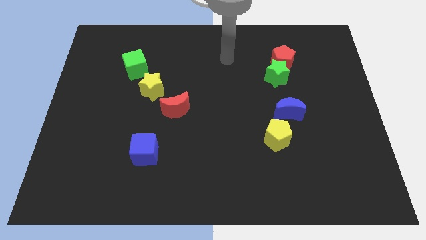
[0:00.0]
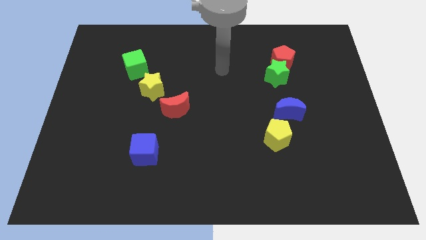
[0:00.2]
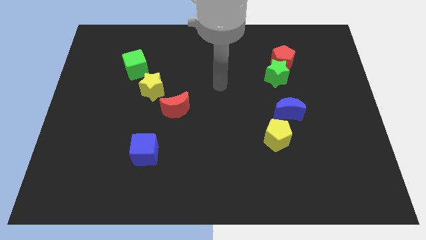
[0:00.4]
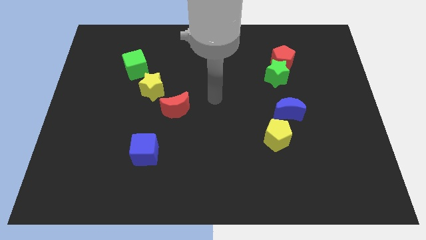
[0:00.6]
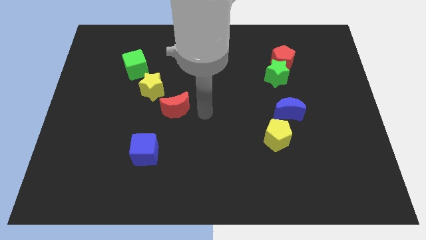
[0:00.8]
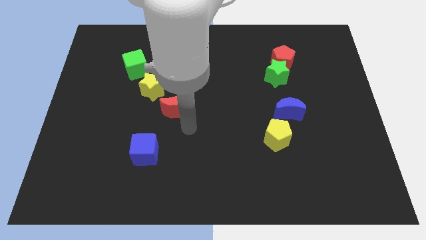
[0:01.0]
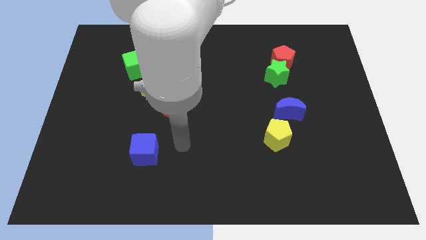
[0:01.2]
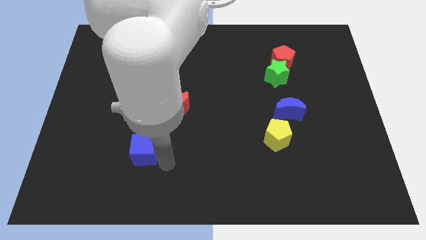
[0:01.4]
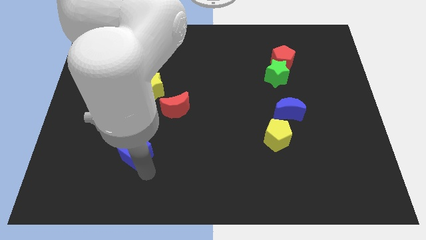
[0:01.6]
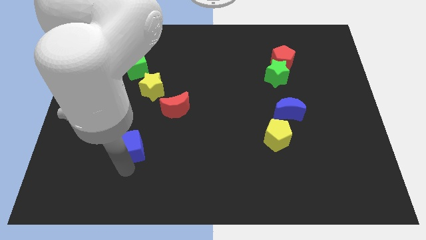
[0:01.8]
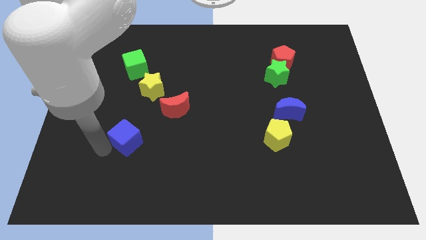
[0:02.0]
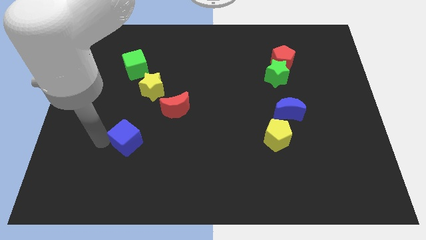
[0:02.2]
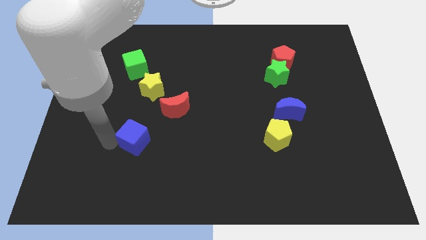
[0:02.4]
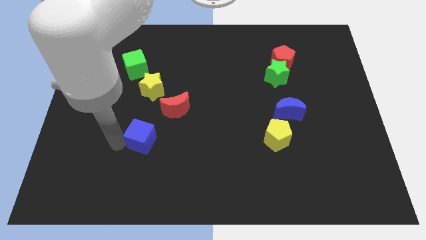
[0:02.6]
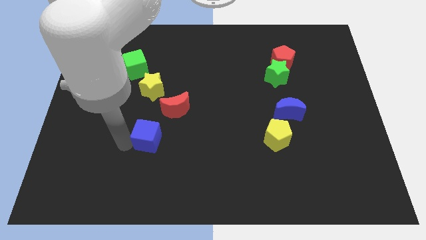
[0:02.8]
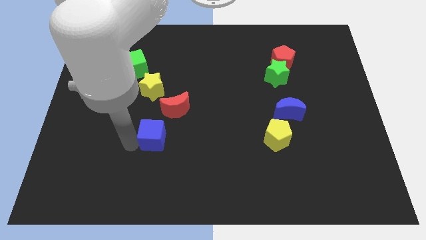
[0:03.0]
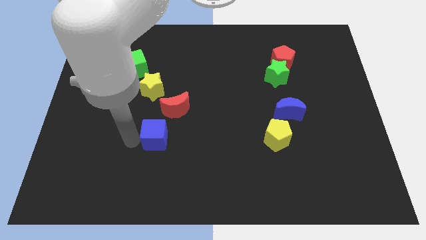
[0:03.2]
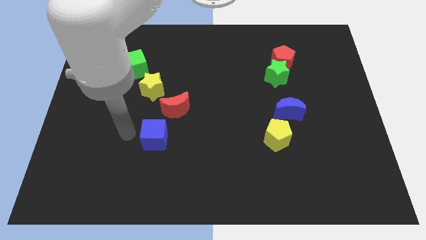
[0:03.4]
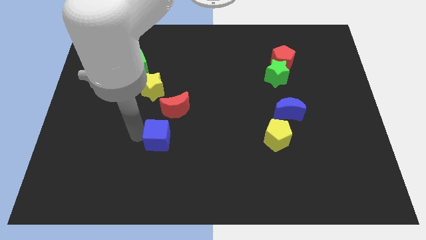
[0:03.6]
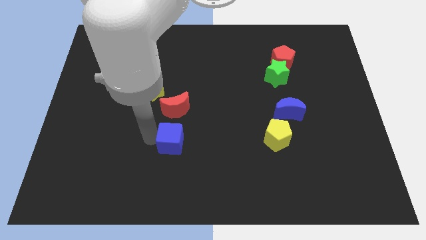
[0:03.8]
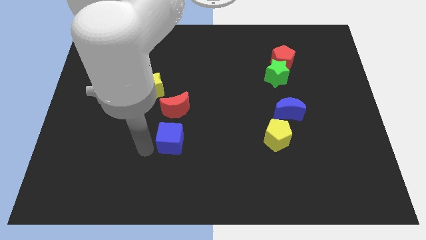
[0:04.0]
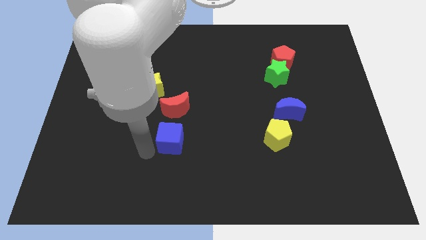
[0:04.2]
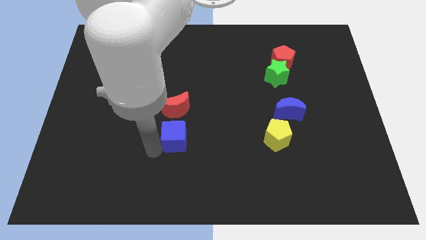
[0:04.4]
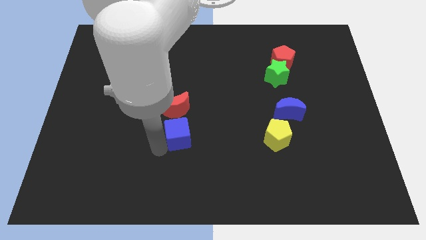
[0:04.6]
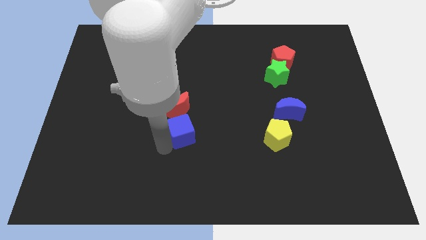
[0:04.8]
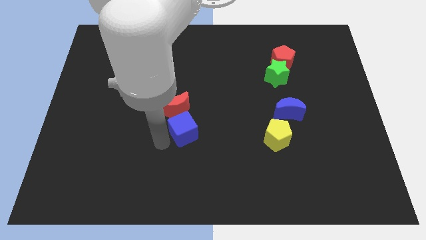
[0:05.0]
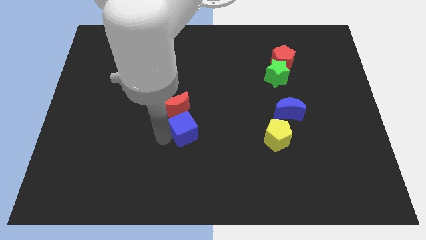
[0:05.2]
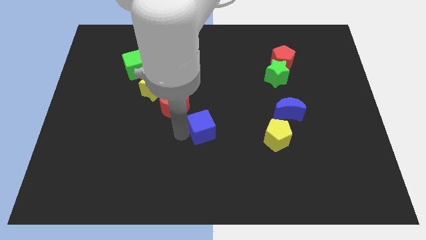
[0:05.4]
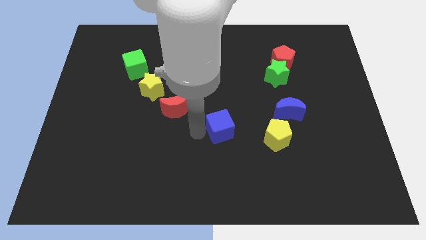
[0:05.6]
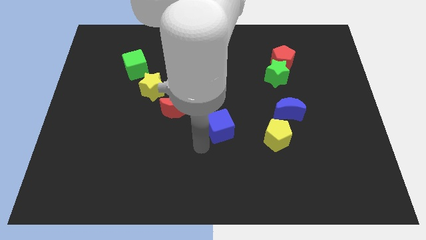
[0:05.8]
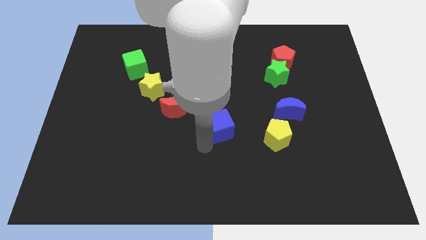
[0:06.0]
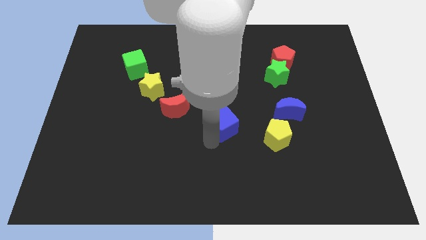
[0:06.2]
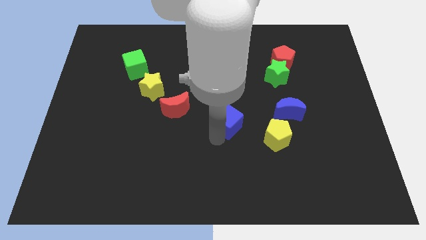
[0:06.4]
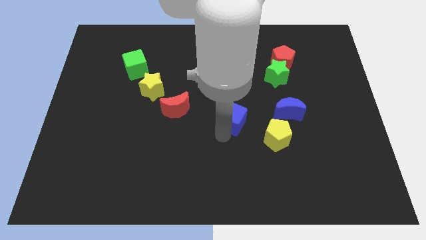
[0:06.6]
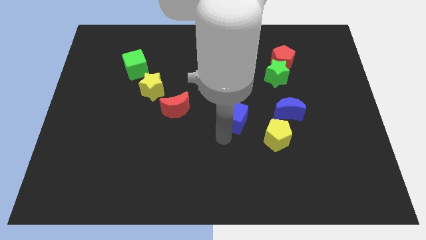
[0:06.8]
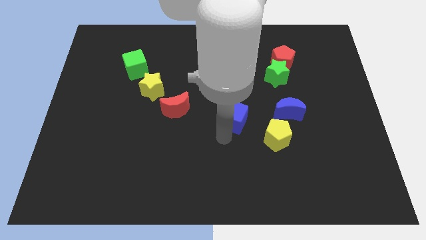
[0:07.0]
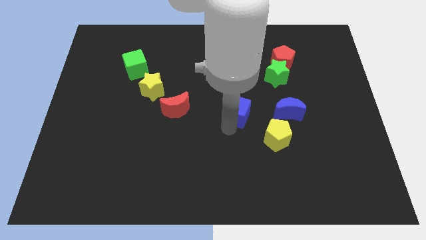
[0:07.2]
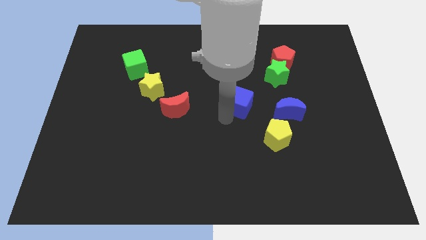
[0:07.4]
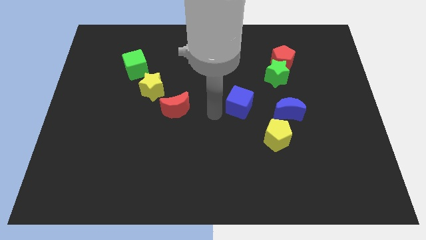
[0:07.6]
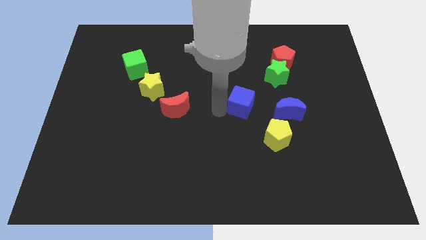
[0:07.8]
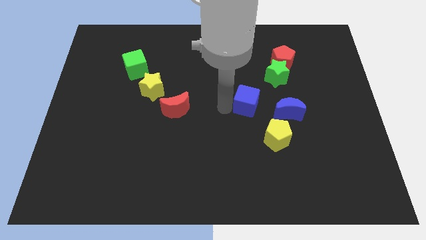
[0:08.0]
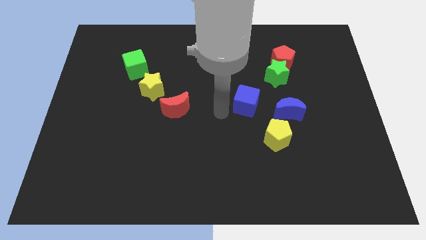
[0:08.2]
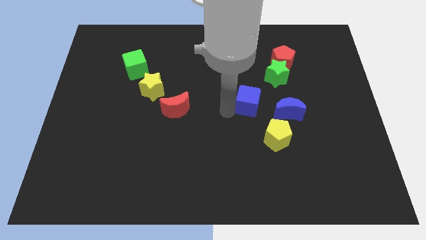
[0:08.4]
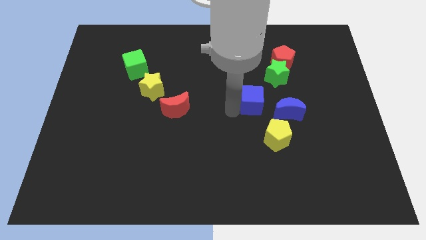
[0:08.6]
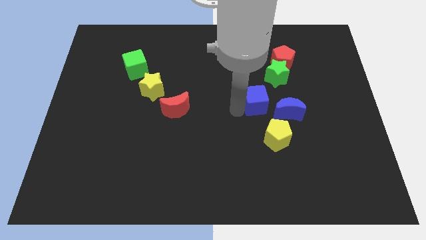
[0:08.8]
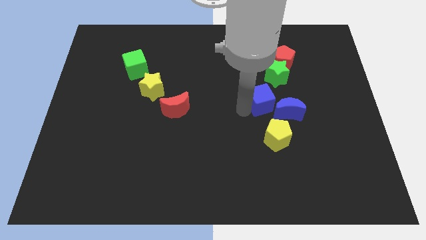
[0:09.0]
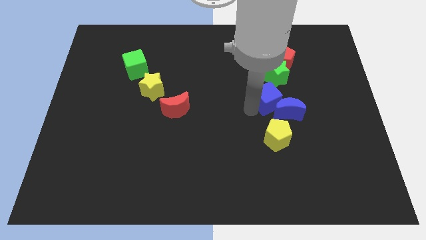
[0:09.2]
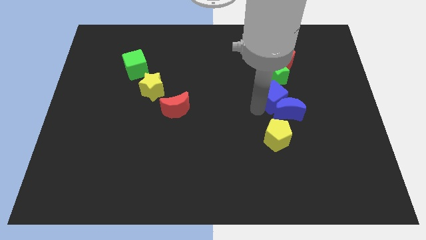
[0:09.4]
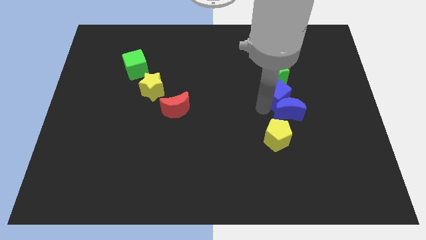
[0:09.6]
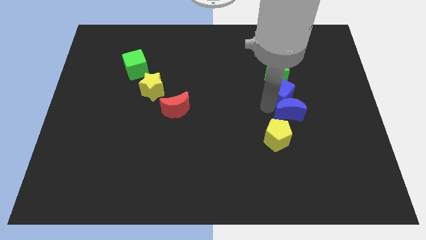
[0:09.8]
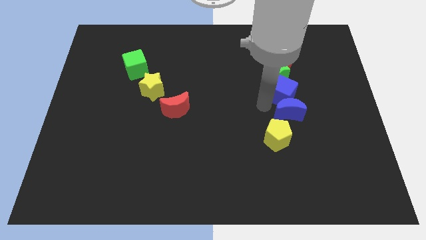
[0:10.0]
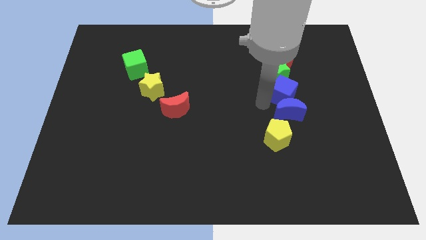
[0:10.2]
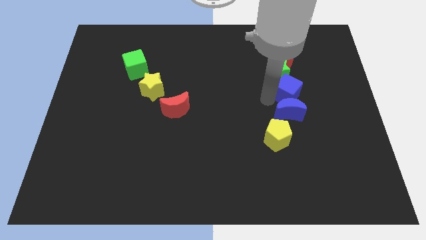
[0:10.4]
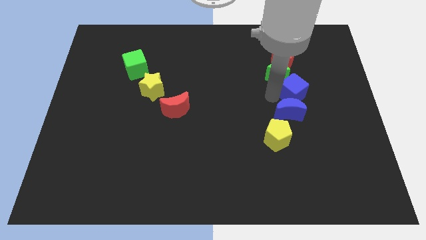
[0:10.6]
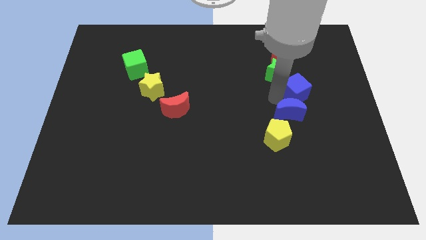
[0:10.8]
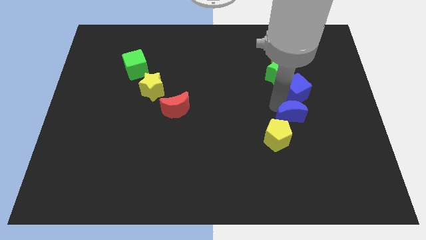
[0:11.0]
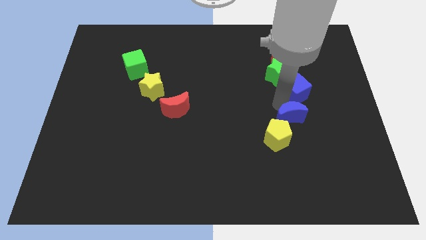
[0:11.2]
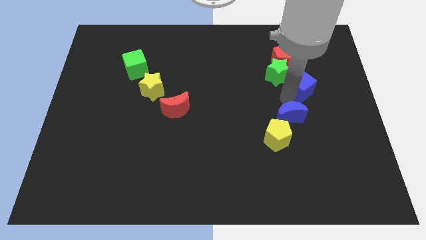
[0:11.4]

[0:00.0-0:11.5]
put the blue cube to the right side of the green star

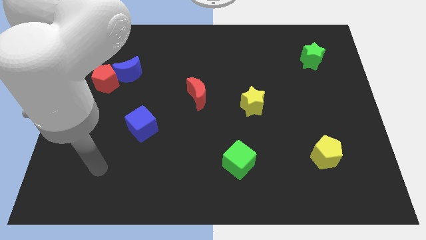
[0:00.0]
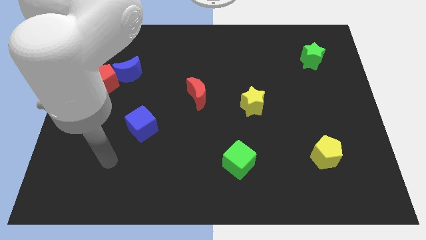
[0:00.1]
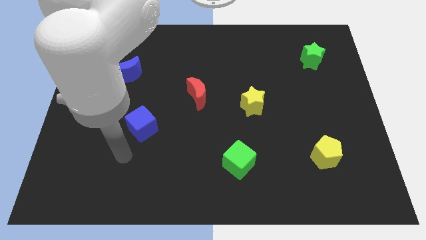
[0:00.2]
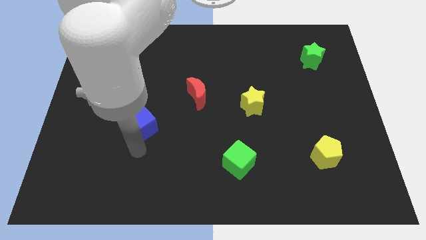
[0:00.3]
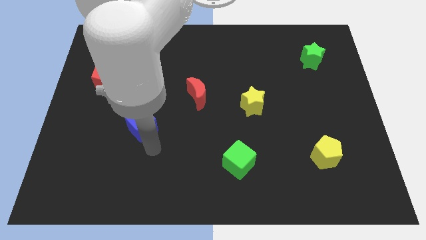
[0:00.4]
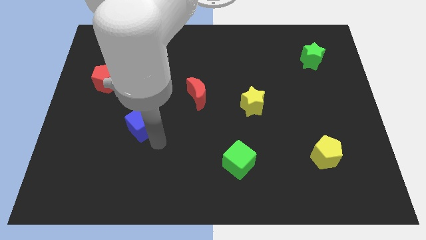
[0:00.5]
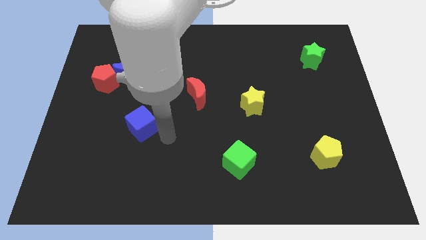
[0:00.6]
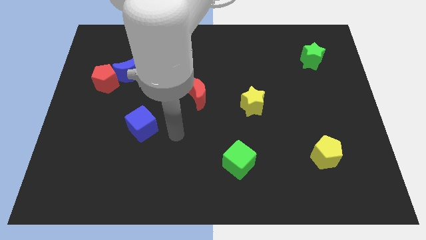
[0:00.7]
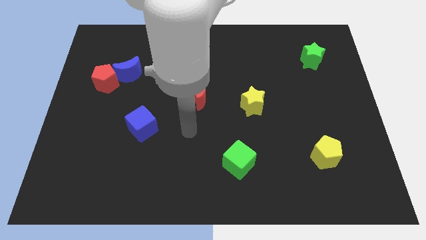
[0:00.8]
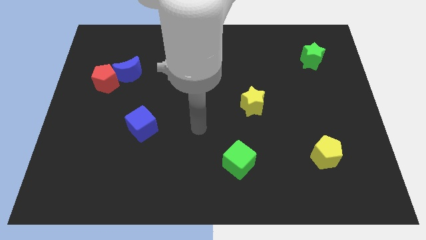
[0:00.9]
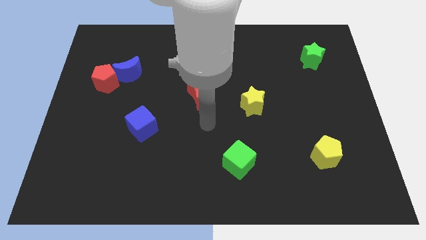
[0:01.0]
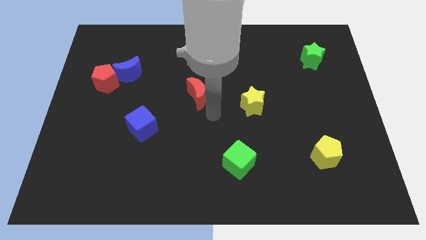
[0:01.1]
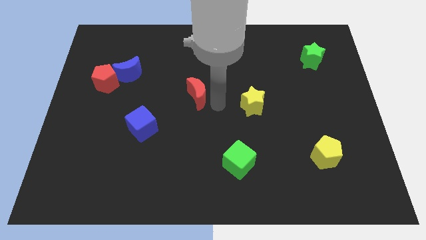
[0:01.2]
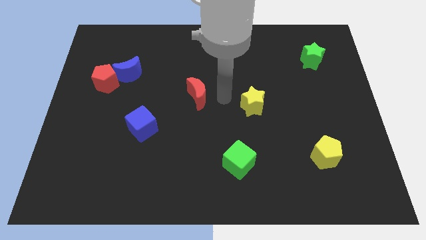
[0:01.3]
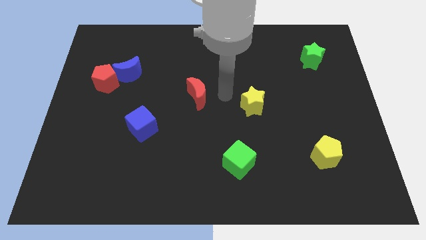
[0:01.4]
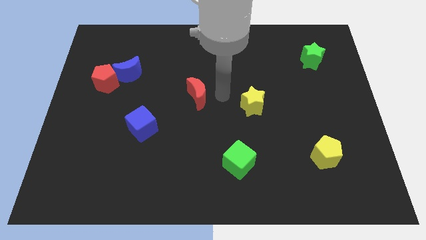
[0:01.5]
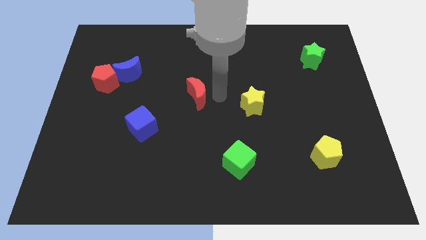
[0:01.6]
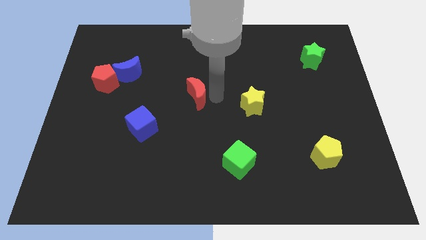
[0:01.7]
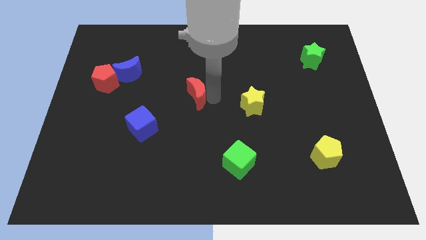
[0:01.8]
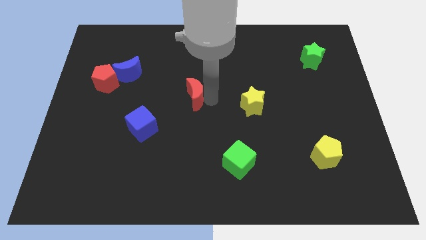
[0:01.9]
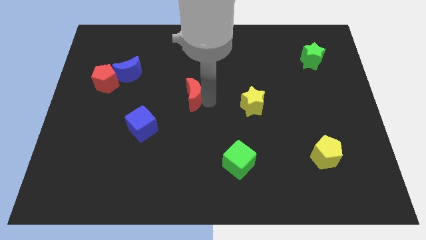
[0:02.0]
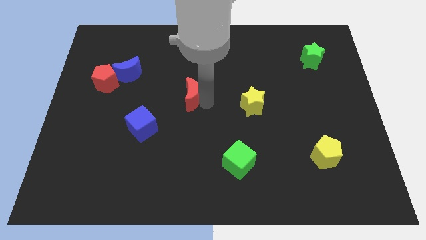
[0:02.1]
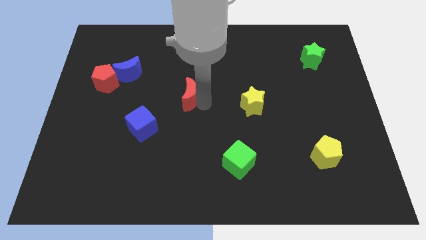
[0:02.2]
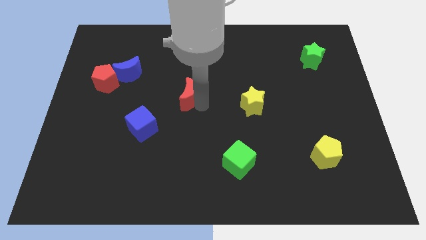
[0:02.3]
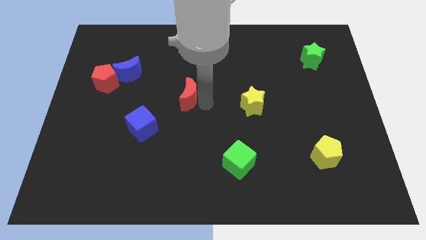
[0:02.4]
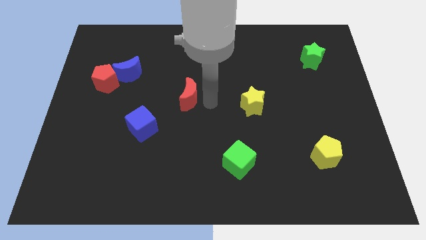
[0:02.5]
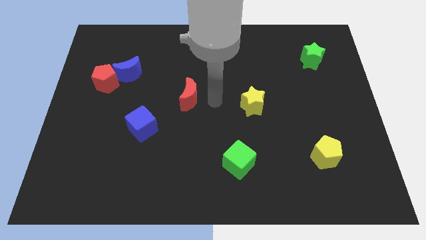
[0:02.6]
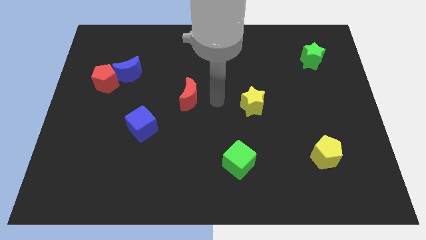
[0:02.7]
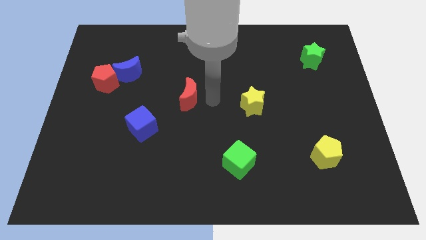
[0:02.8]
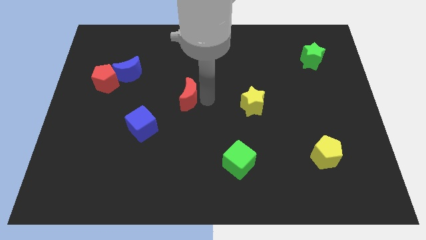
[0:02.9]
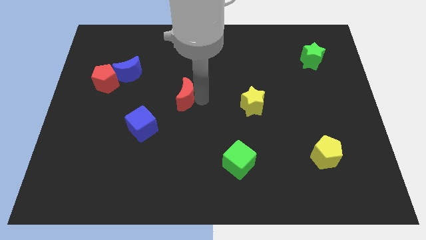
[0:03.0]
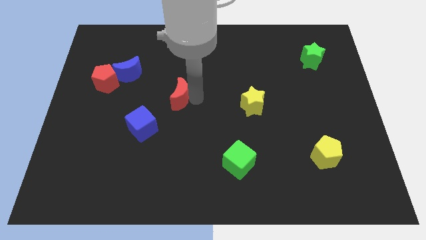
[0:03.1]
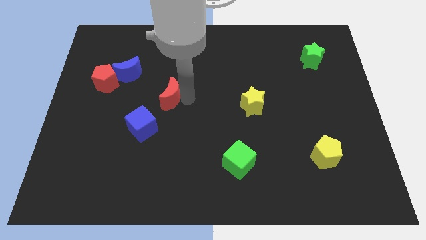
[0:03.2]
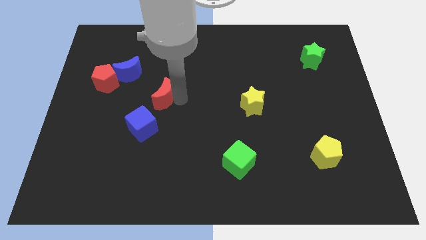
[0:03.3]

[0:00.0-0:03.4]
push the red moon diagonally down and to the right of the blue moon
